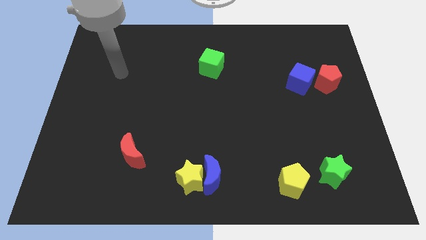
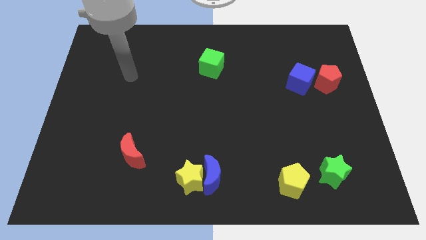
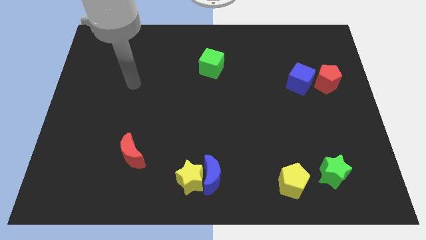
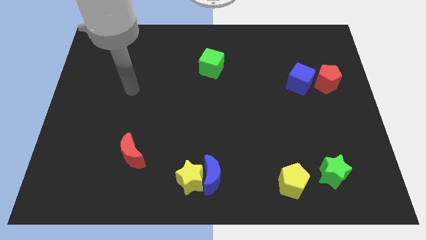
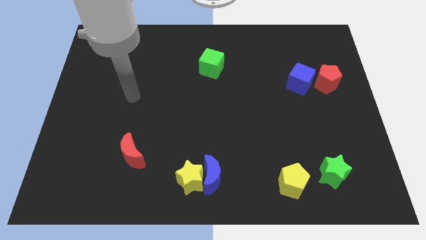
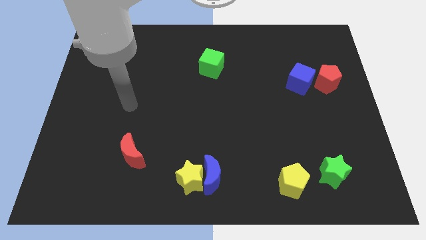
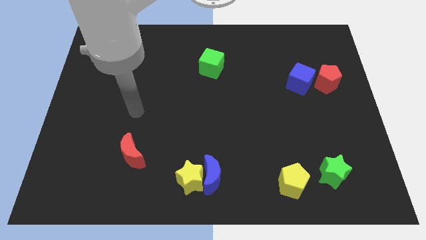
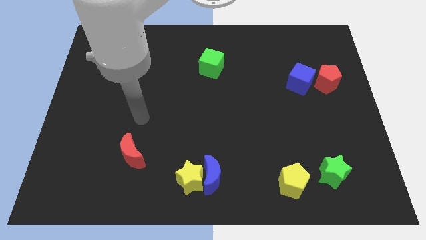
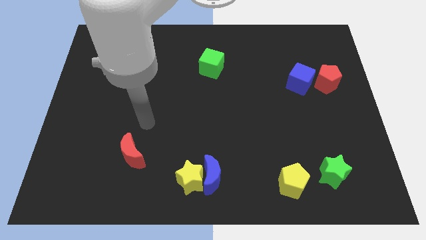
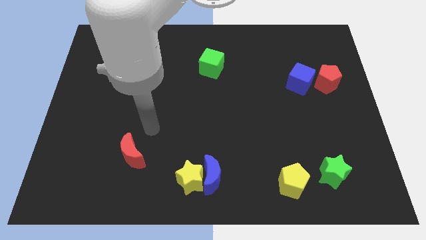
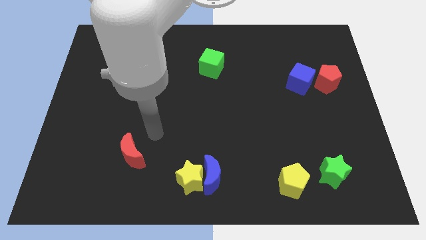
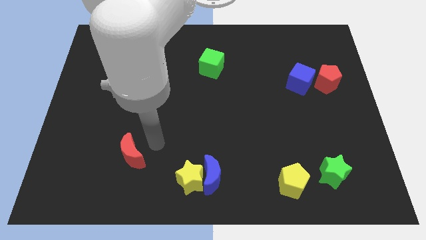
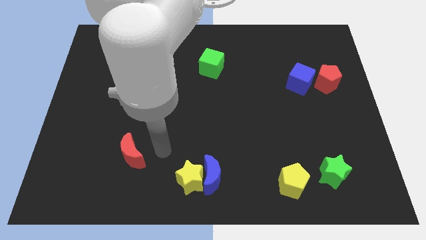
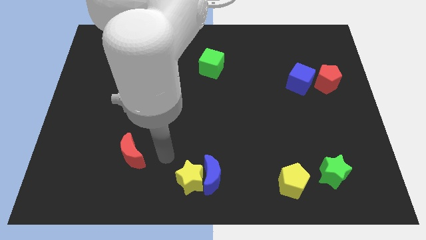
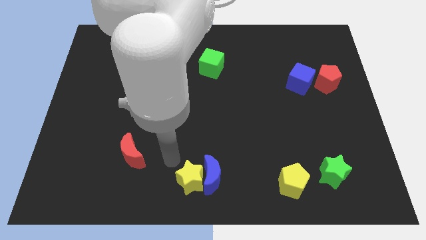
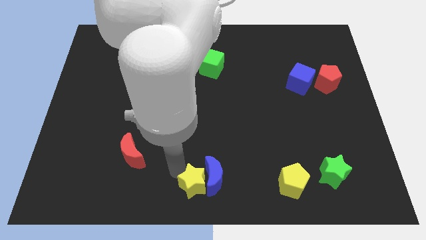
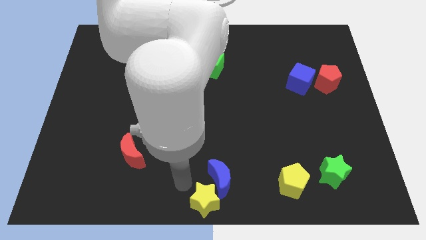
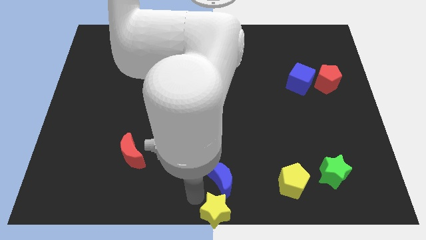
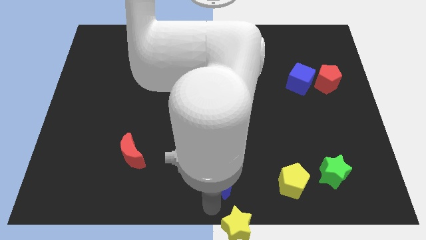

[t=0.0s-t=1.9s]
pull the blue moon apart from the yellow star

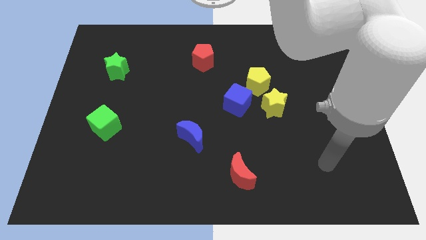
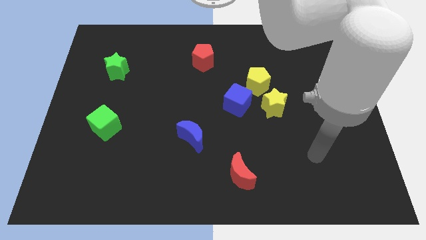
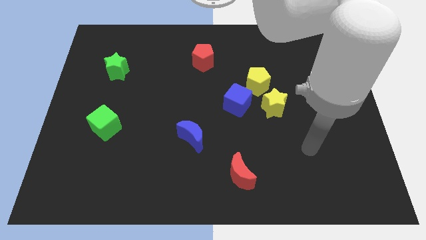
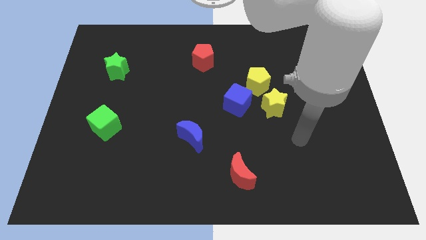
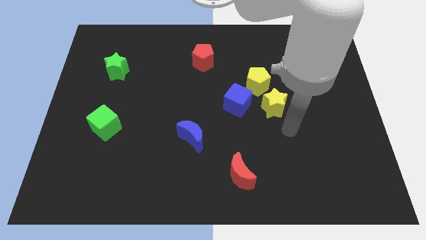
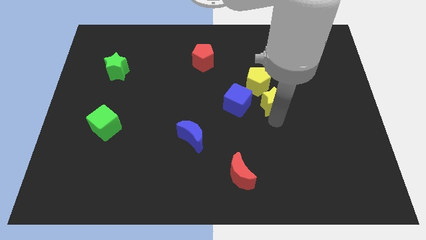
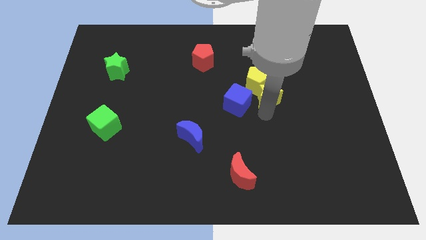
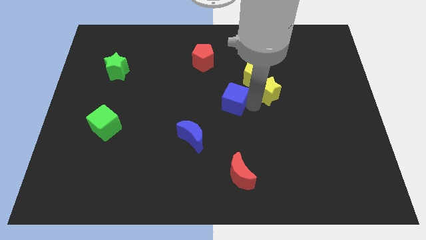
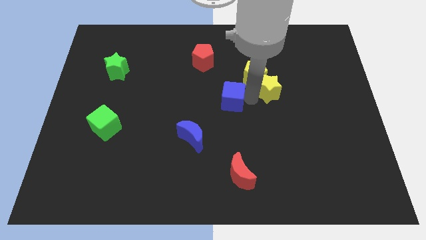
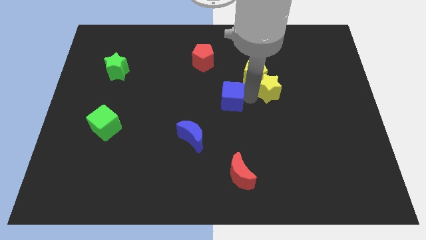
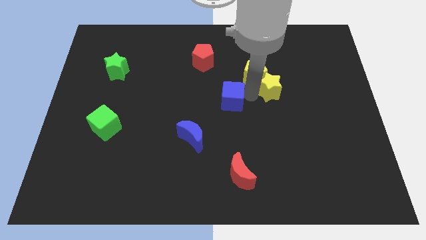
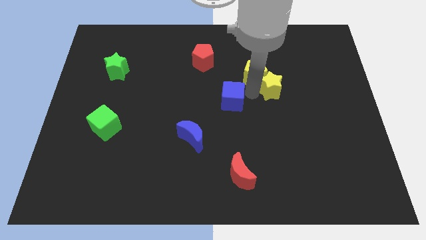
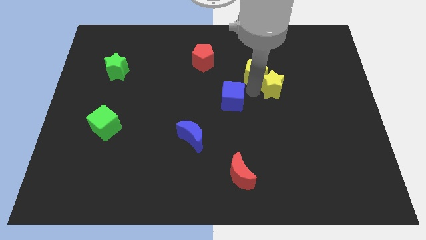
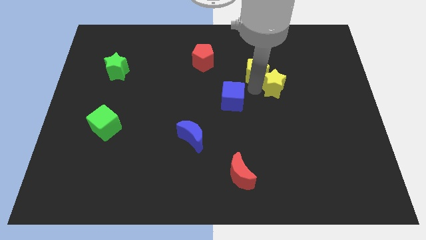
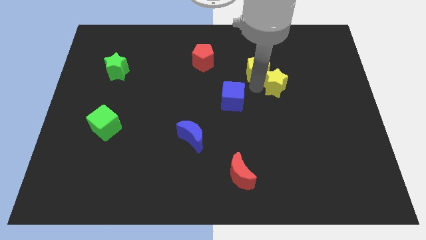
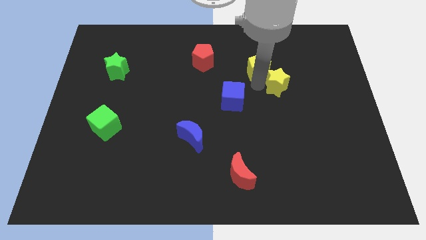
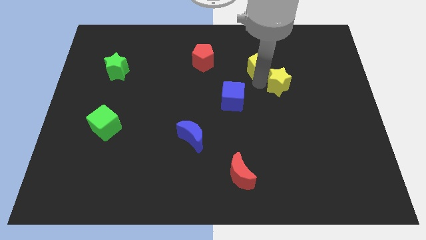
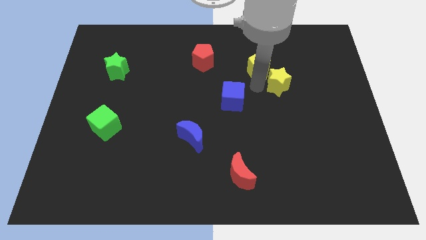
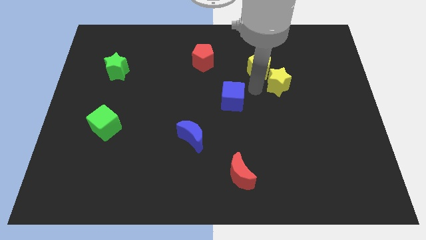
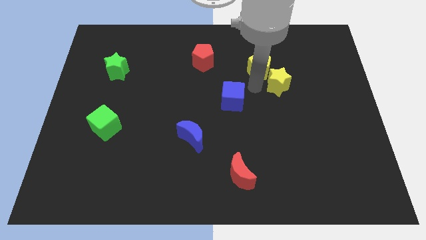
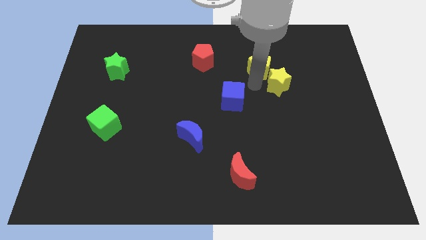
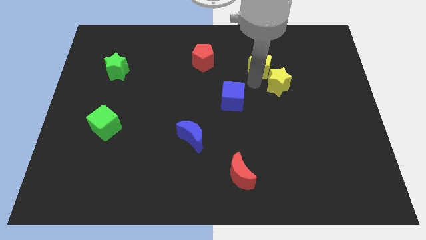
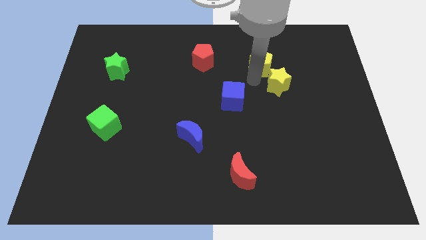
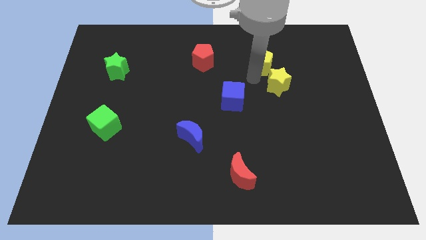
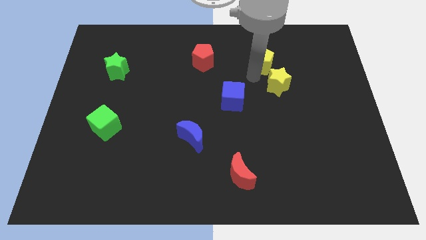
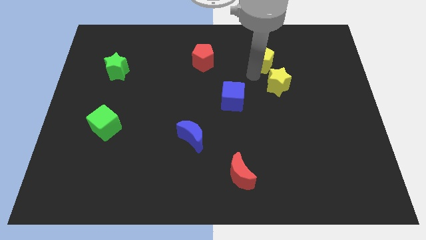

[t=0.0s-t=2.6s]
move the yellow pentagon away from the blue cube and yellow star

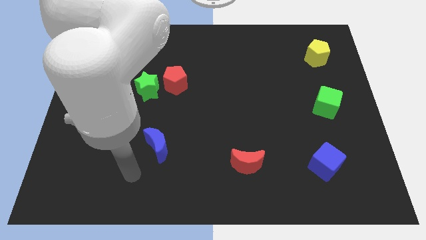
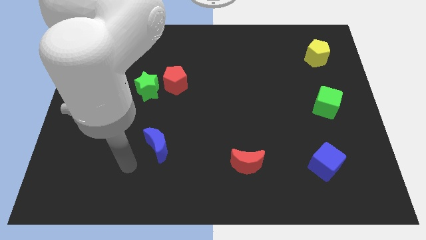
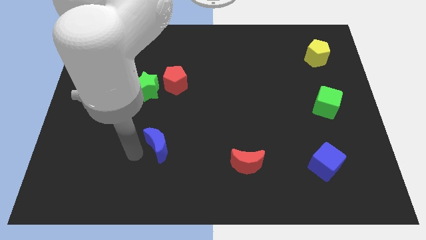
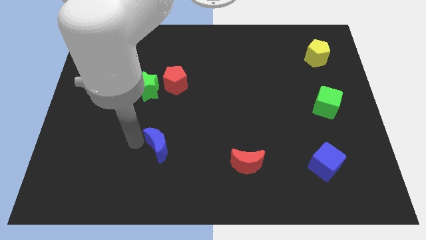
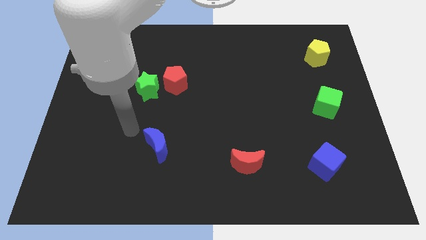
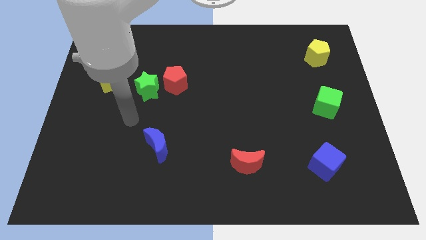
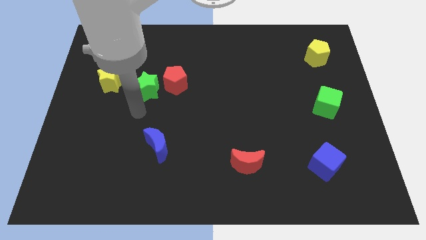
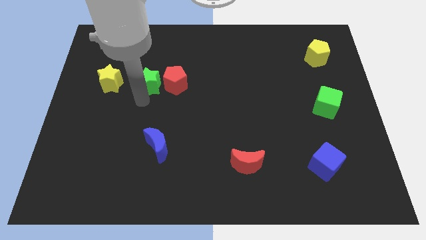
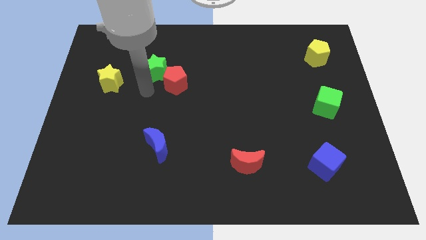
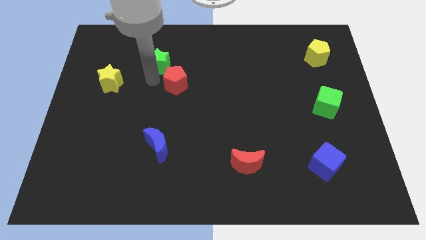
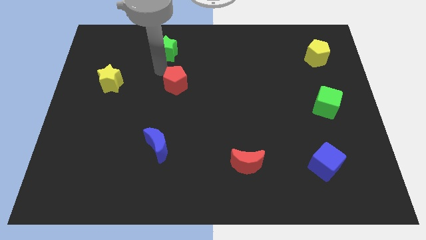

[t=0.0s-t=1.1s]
separate the red pentagon from the green star

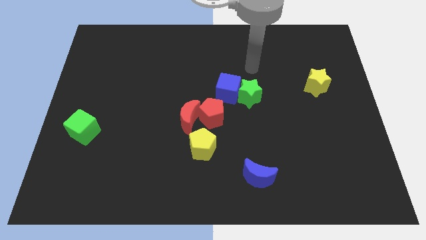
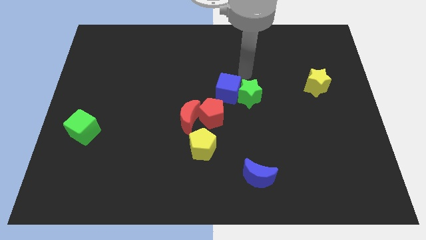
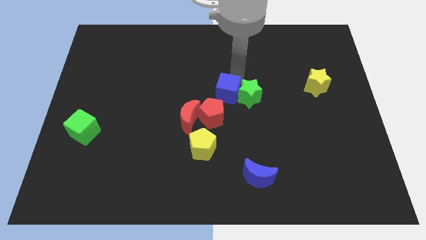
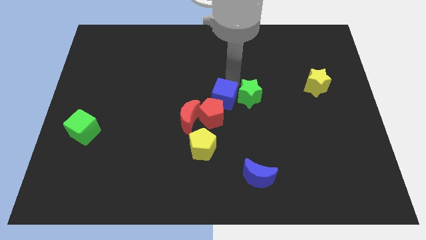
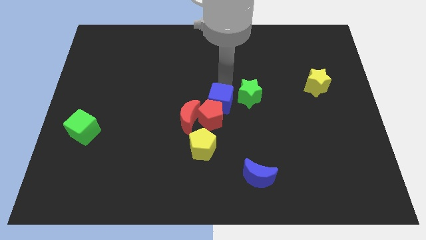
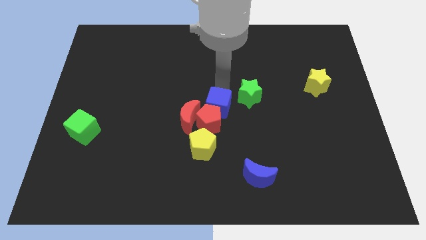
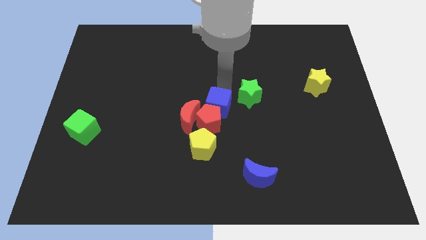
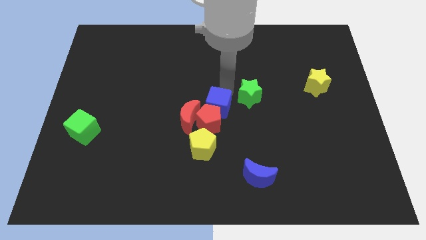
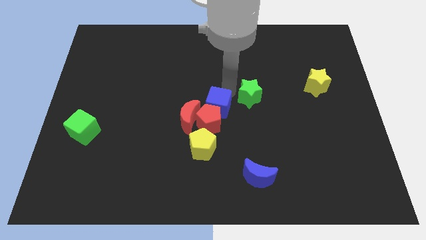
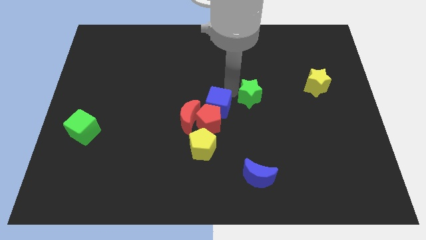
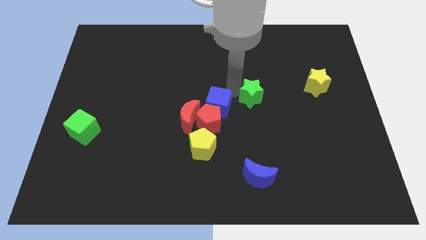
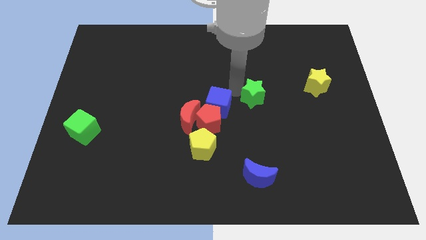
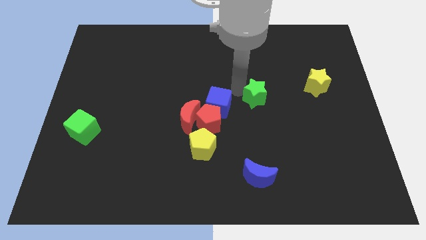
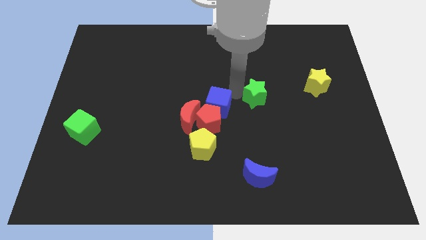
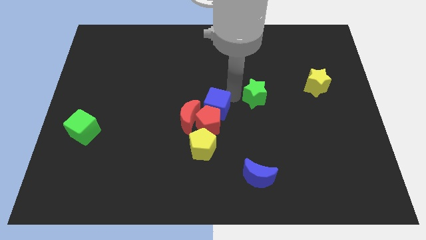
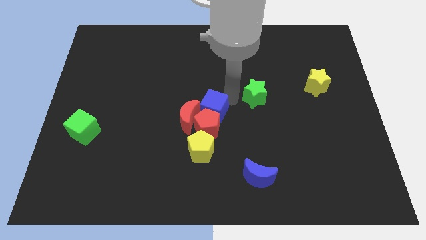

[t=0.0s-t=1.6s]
move the green star away from the blue cube

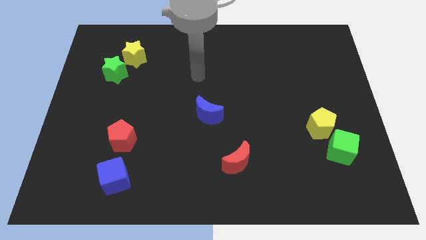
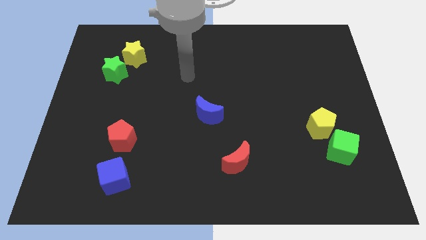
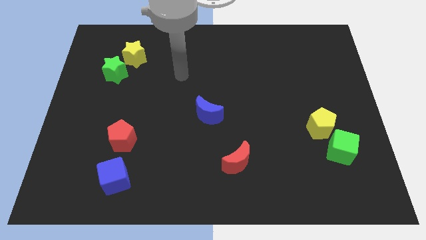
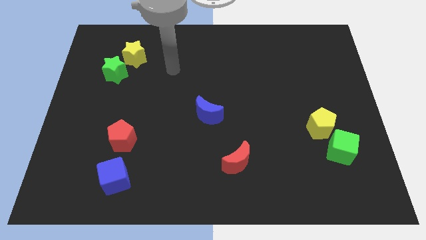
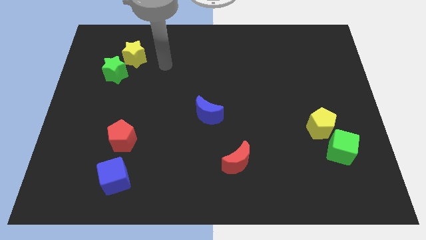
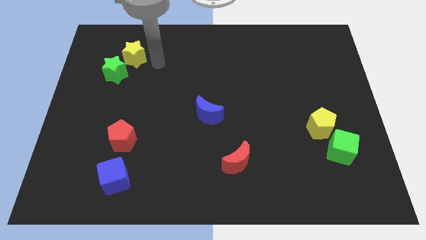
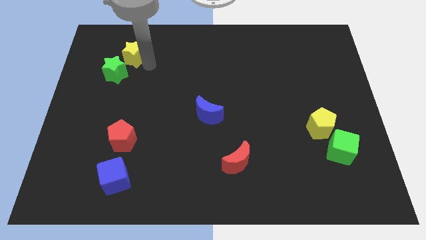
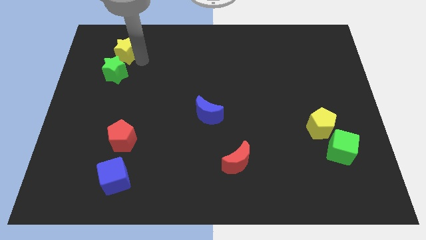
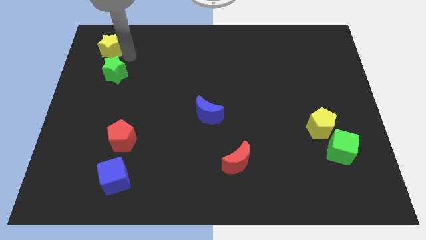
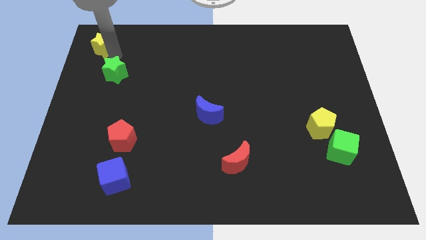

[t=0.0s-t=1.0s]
move the green star away from the yellow star

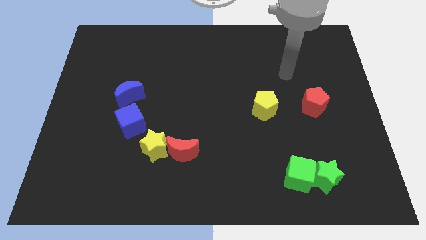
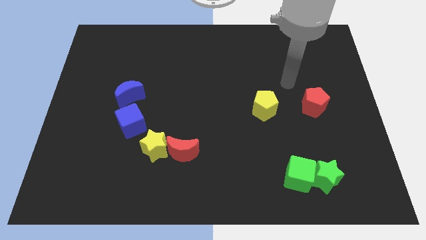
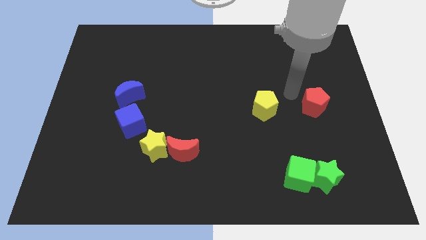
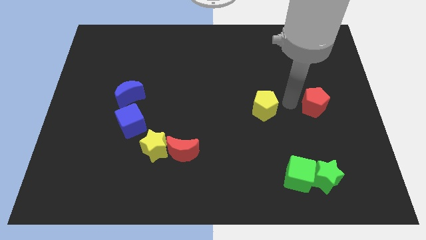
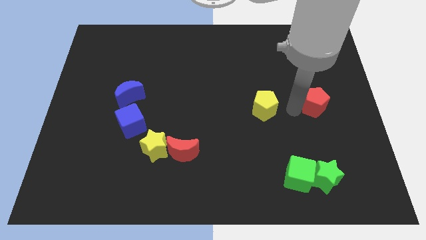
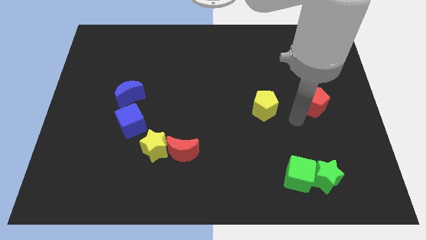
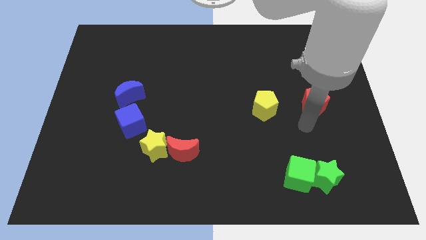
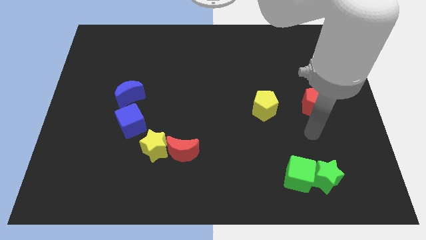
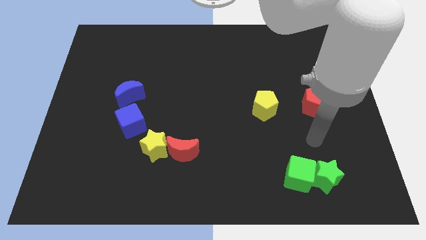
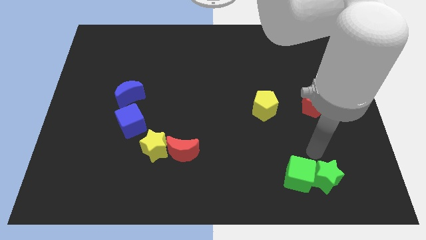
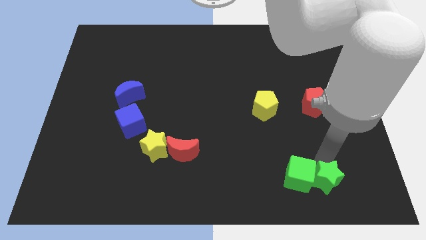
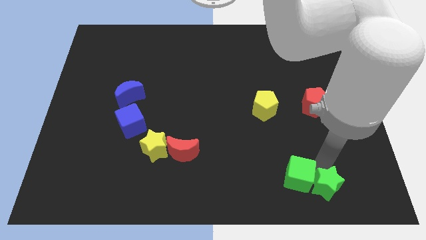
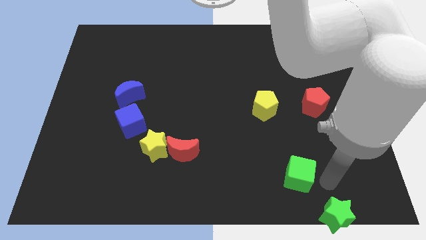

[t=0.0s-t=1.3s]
pull the green cube apart from the green star
